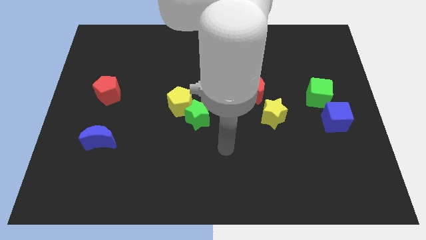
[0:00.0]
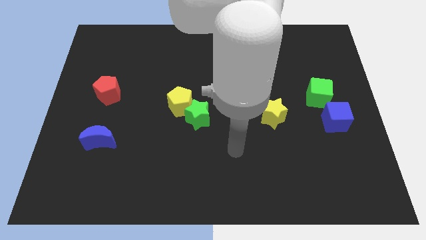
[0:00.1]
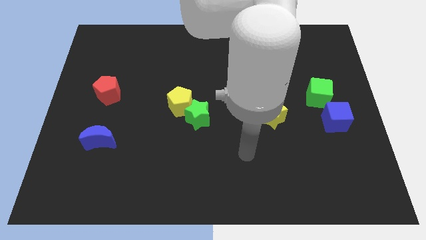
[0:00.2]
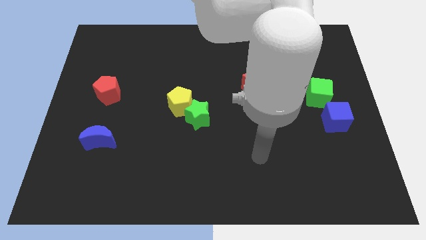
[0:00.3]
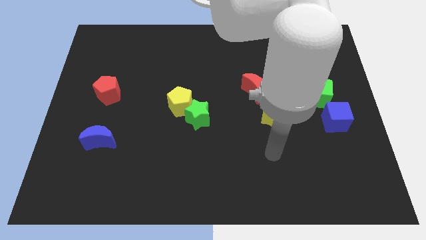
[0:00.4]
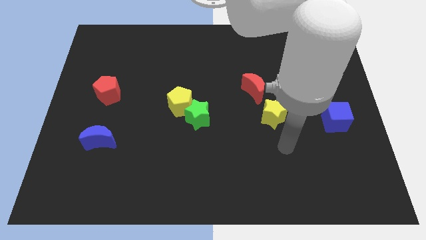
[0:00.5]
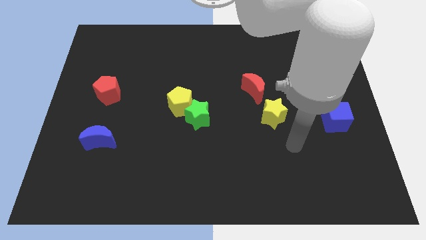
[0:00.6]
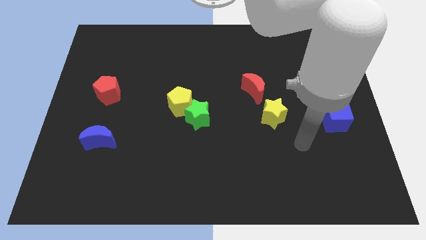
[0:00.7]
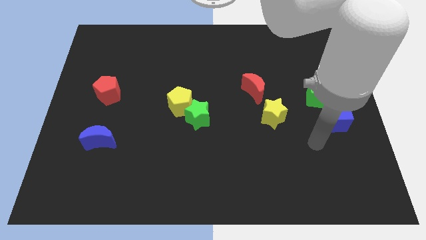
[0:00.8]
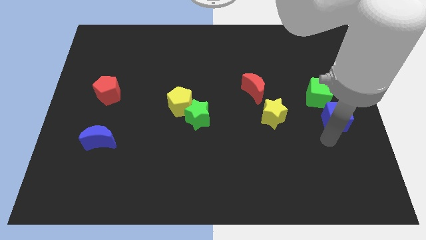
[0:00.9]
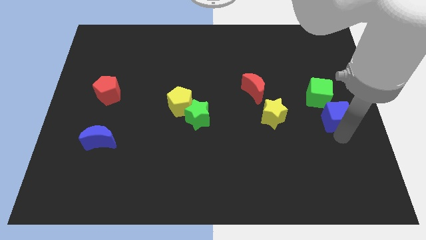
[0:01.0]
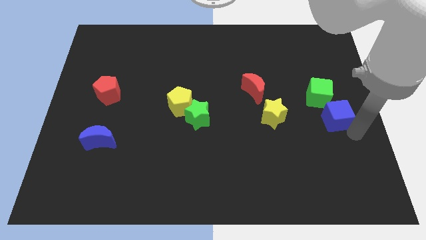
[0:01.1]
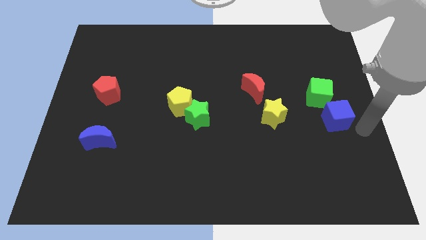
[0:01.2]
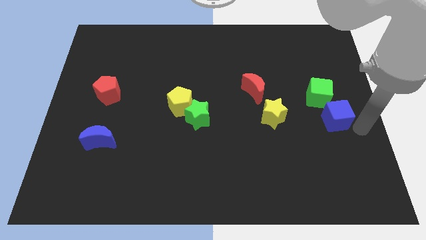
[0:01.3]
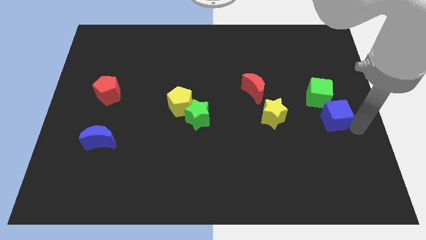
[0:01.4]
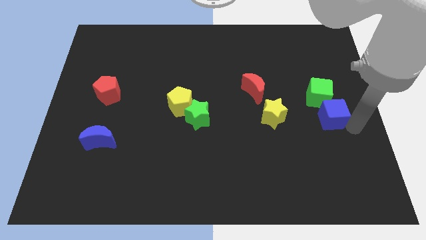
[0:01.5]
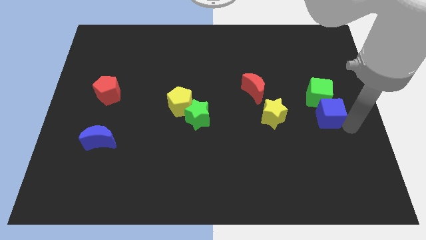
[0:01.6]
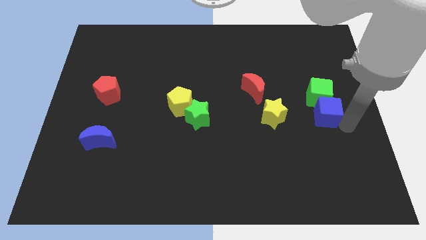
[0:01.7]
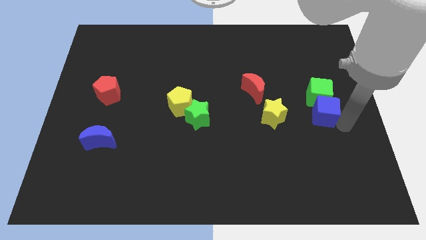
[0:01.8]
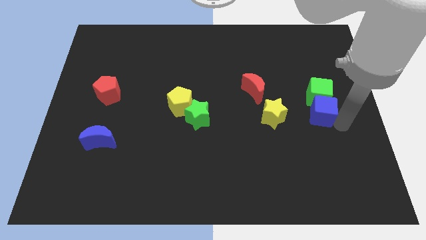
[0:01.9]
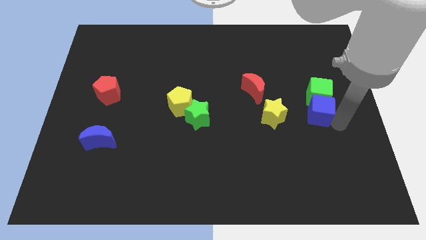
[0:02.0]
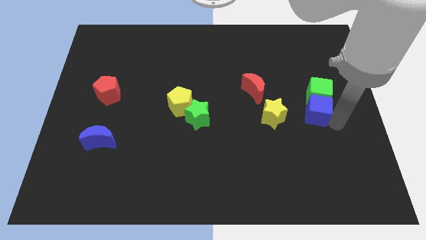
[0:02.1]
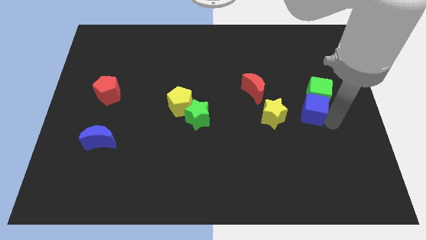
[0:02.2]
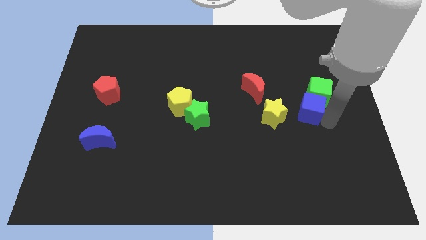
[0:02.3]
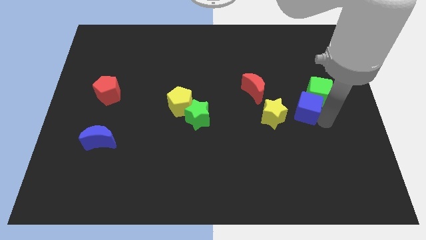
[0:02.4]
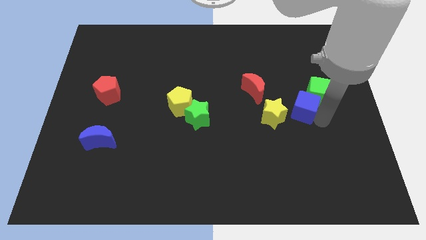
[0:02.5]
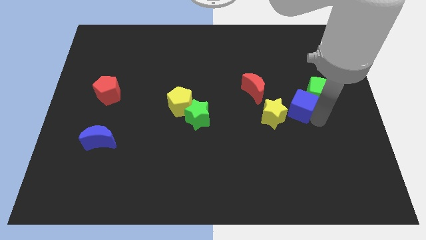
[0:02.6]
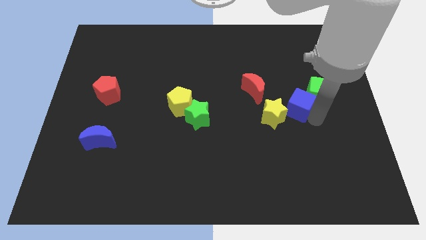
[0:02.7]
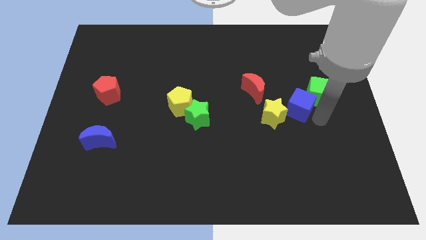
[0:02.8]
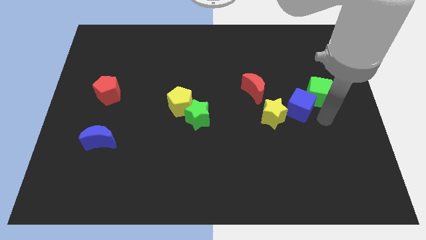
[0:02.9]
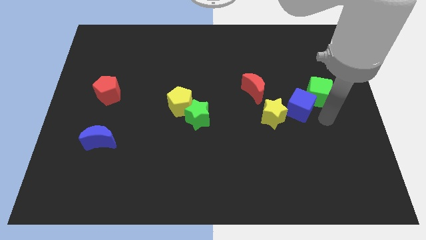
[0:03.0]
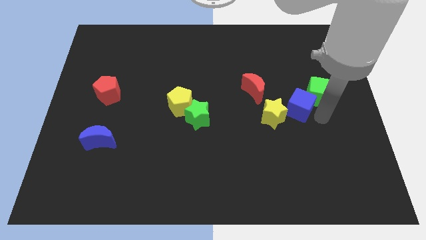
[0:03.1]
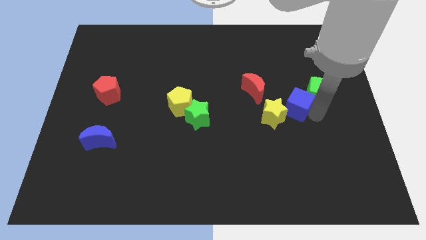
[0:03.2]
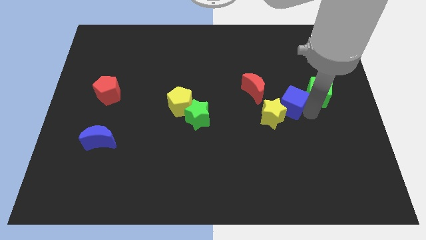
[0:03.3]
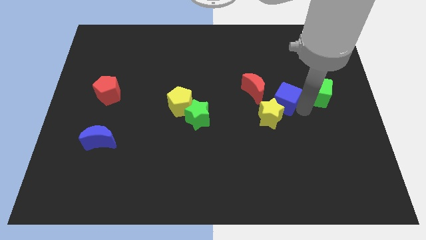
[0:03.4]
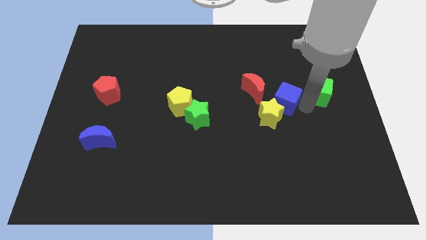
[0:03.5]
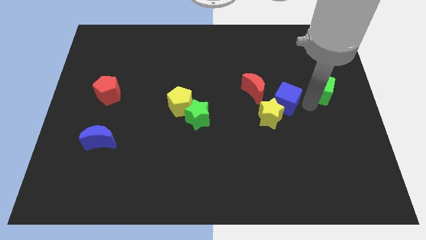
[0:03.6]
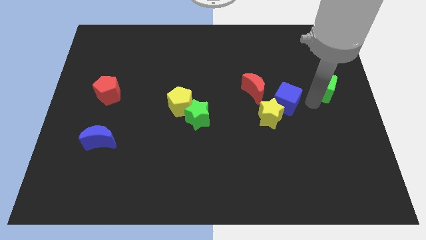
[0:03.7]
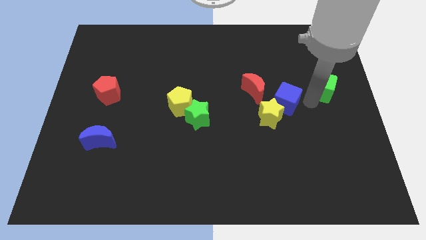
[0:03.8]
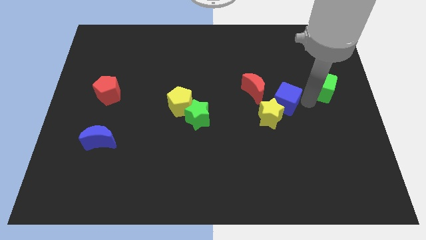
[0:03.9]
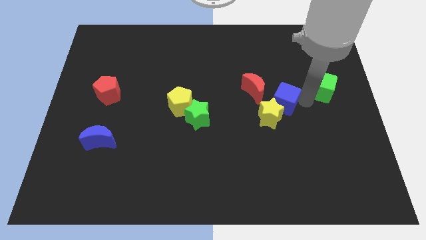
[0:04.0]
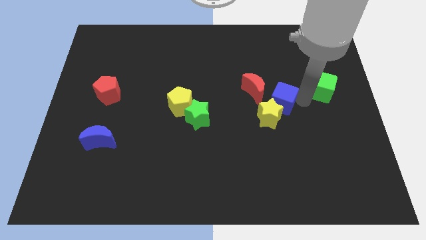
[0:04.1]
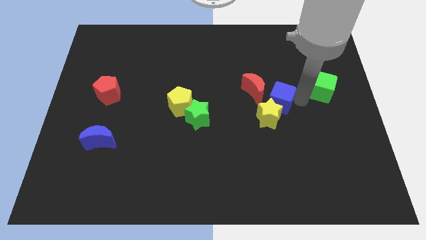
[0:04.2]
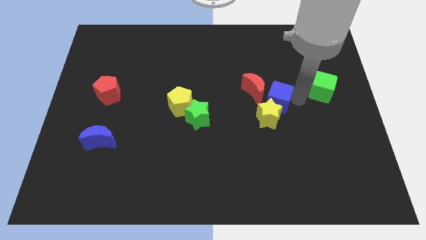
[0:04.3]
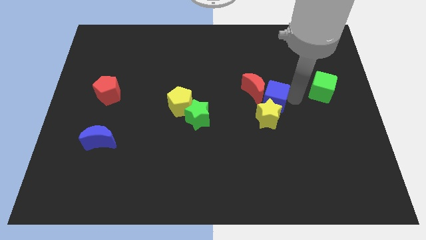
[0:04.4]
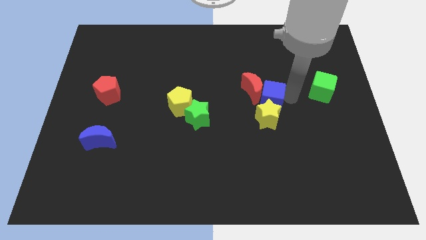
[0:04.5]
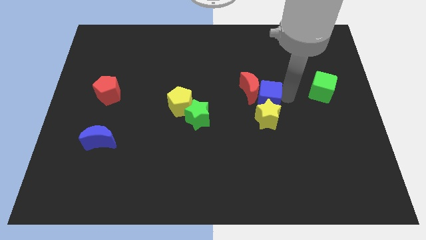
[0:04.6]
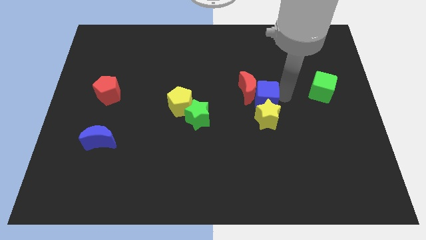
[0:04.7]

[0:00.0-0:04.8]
slide the blue cube to the center

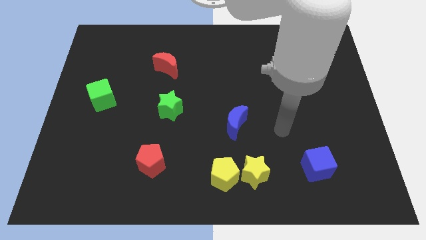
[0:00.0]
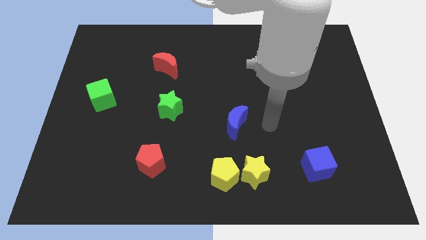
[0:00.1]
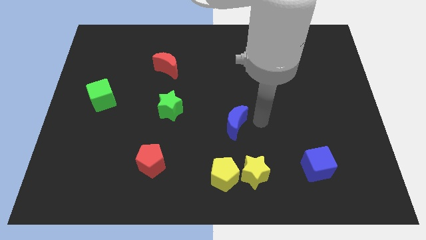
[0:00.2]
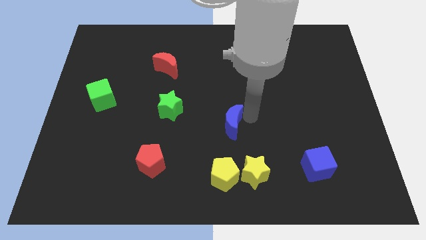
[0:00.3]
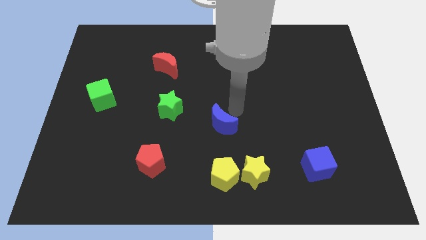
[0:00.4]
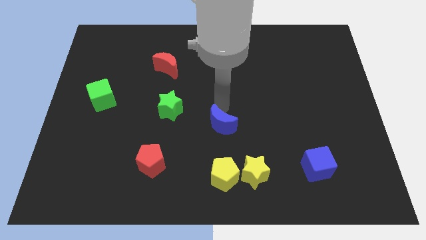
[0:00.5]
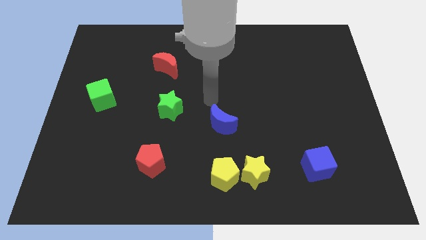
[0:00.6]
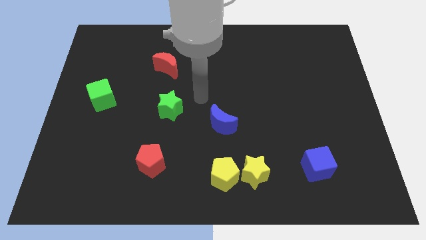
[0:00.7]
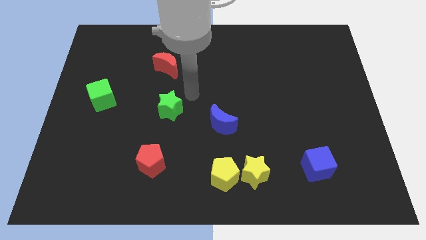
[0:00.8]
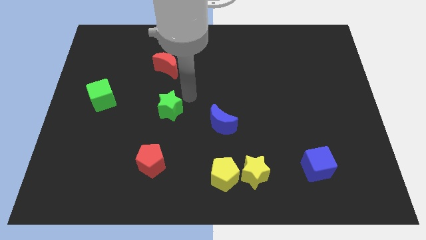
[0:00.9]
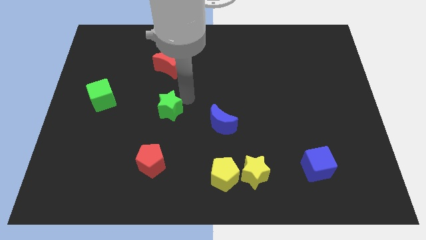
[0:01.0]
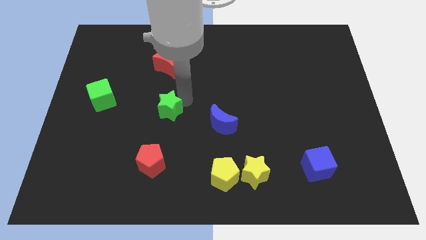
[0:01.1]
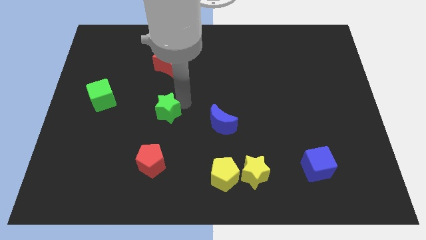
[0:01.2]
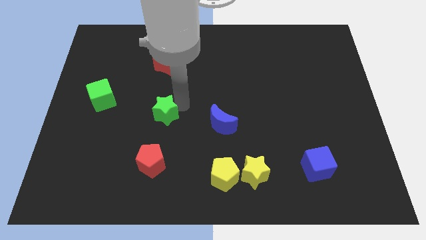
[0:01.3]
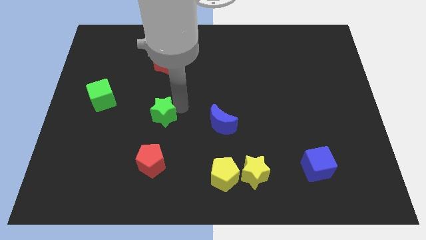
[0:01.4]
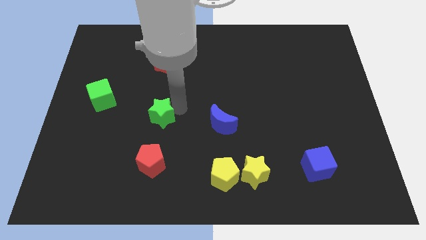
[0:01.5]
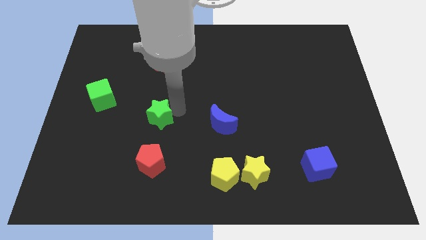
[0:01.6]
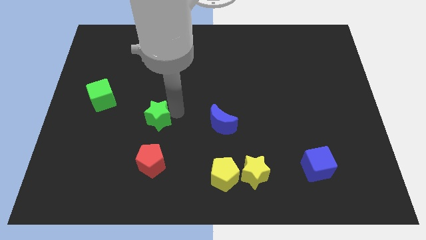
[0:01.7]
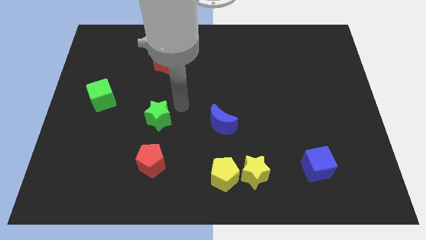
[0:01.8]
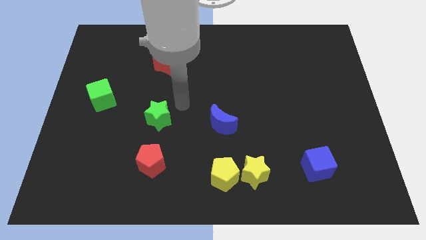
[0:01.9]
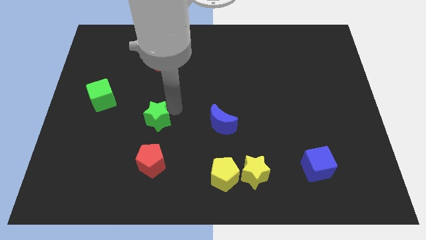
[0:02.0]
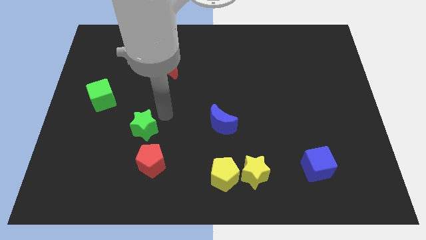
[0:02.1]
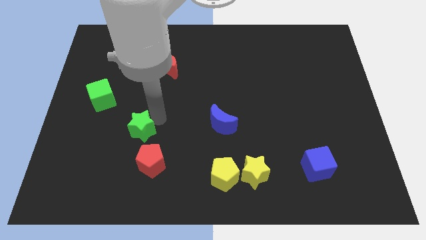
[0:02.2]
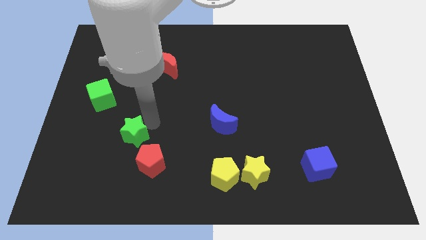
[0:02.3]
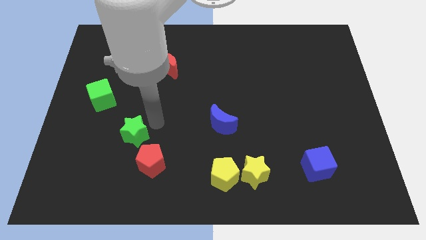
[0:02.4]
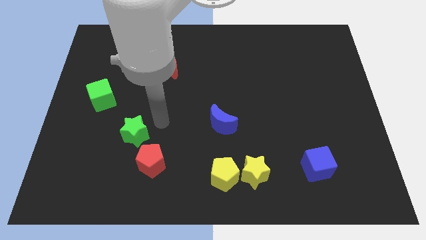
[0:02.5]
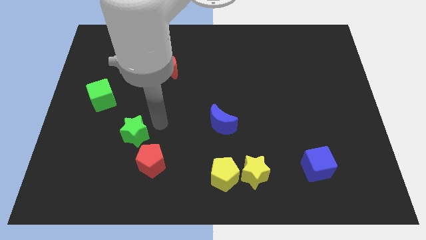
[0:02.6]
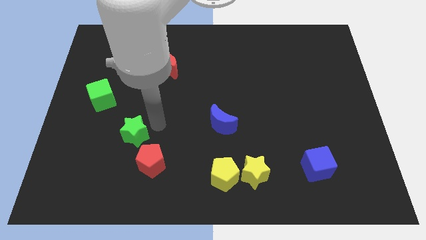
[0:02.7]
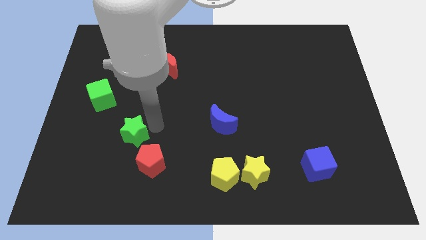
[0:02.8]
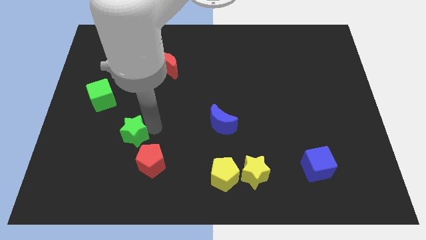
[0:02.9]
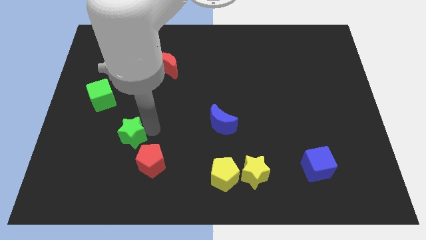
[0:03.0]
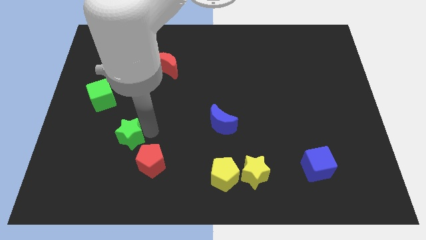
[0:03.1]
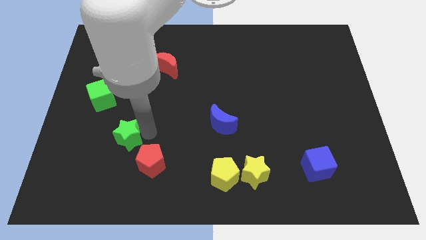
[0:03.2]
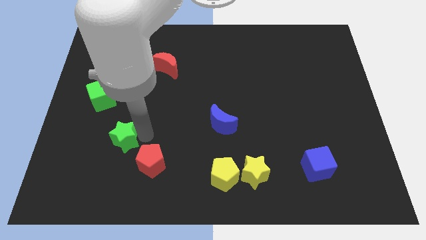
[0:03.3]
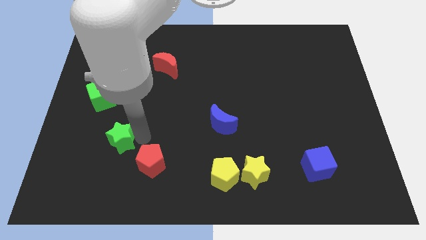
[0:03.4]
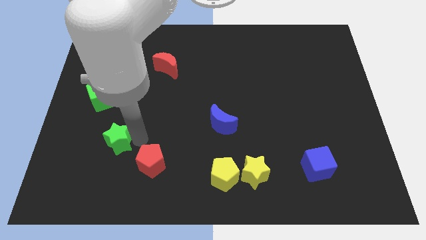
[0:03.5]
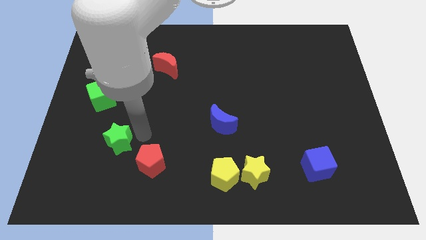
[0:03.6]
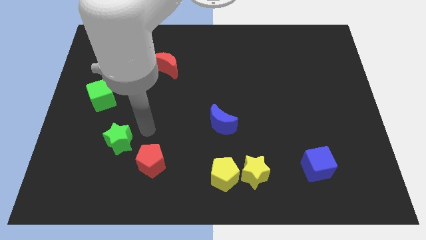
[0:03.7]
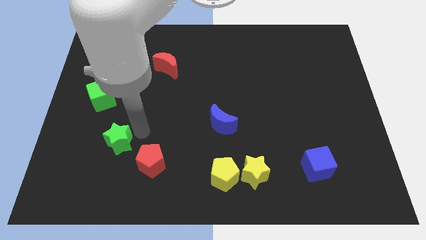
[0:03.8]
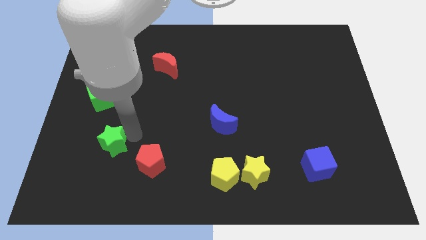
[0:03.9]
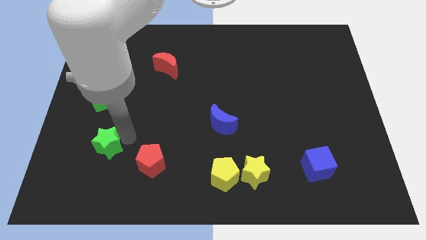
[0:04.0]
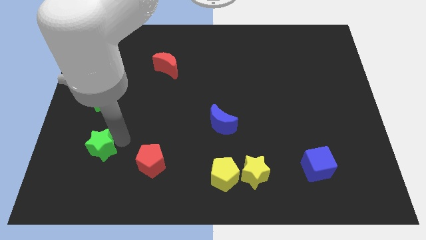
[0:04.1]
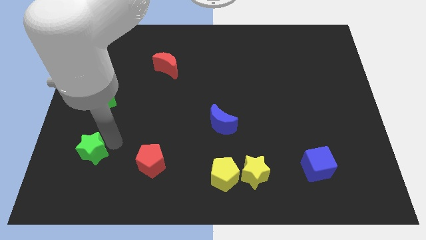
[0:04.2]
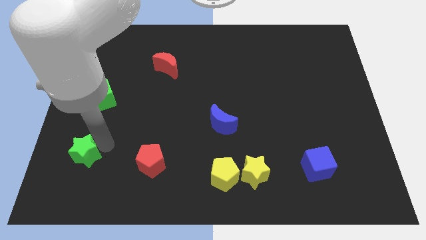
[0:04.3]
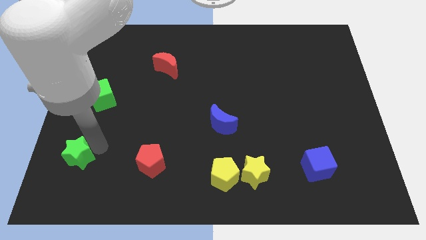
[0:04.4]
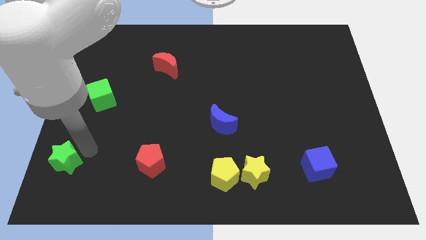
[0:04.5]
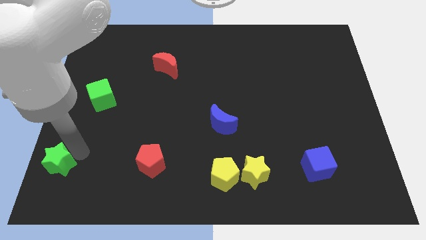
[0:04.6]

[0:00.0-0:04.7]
slide the green star to the bottom left
